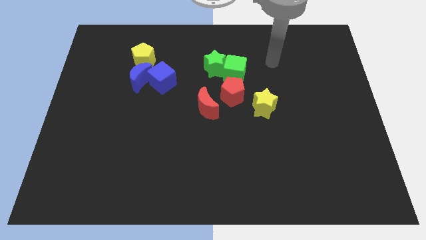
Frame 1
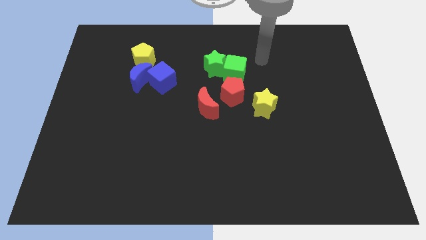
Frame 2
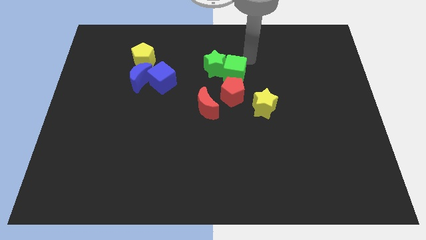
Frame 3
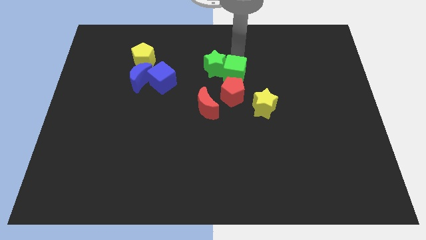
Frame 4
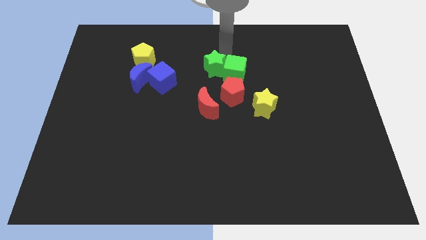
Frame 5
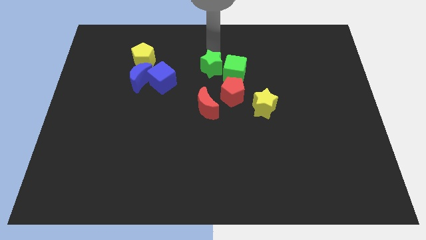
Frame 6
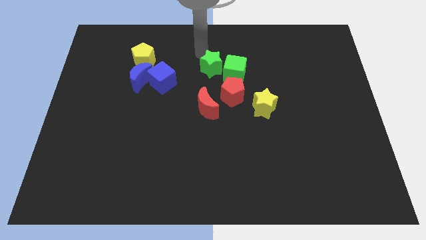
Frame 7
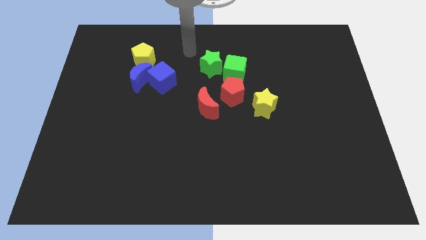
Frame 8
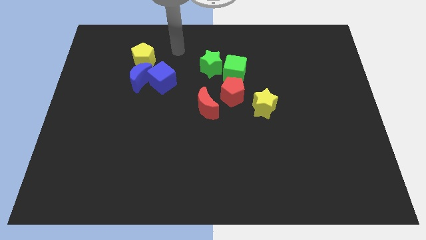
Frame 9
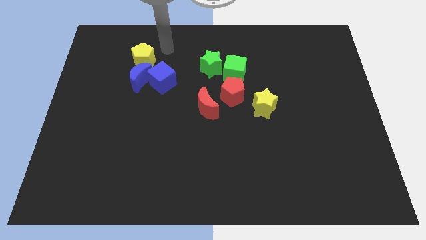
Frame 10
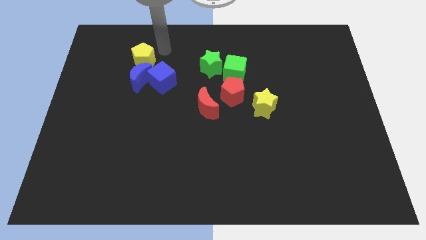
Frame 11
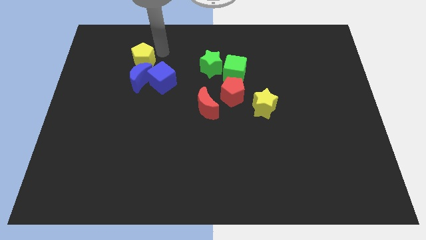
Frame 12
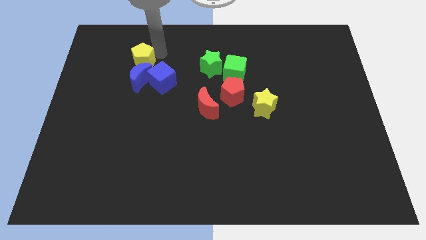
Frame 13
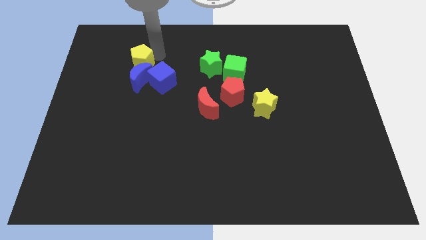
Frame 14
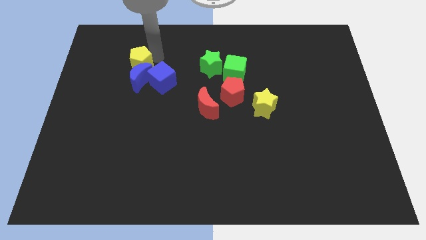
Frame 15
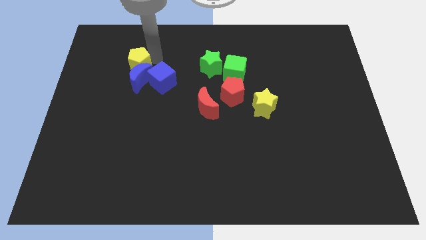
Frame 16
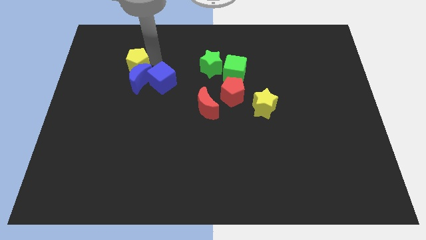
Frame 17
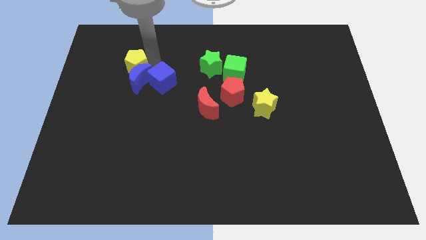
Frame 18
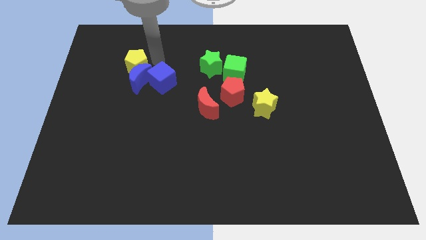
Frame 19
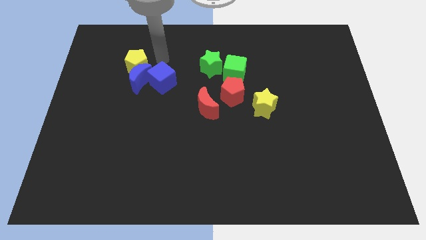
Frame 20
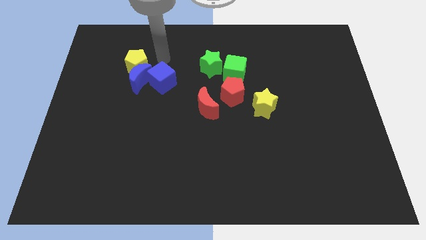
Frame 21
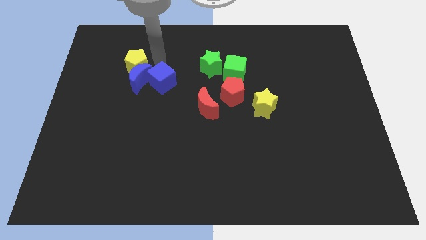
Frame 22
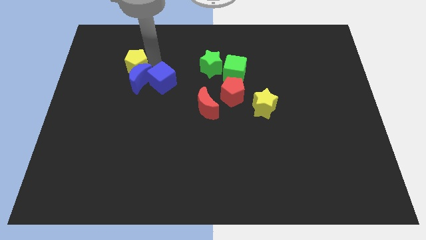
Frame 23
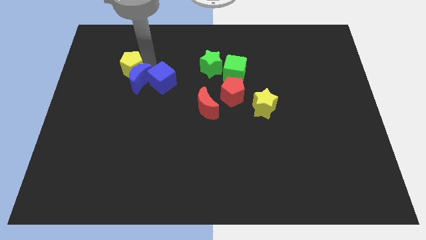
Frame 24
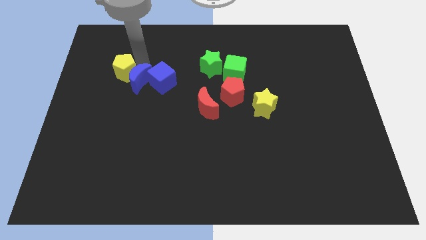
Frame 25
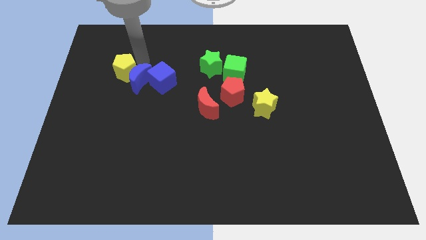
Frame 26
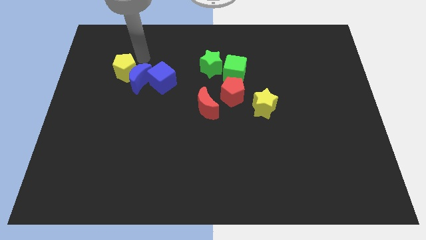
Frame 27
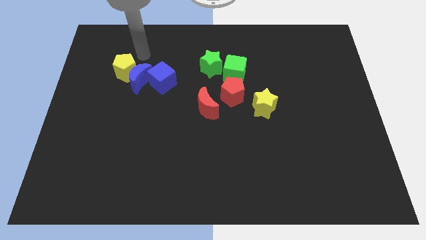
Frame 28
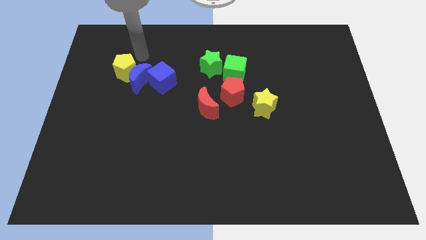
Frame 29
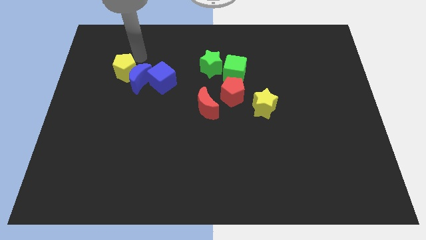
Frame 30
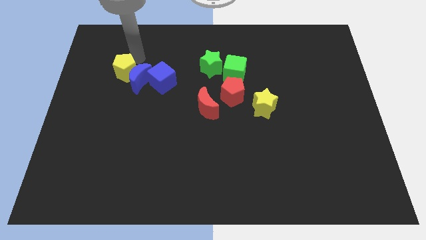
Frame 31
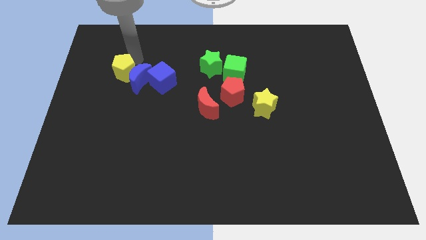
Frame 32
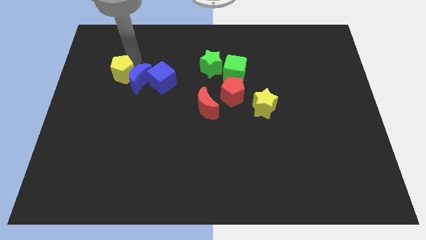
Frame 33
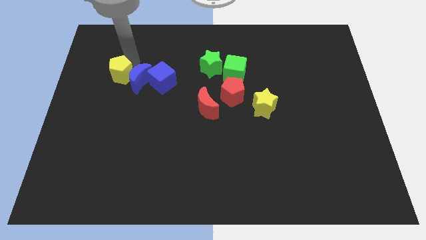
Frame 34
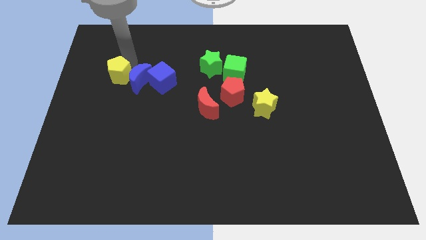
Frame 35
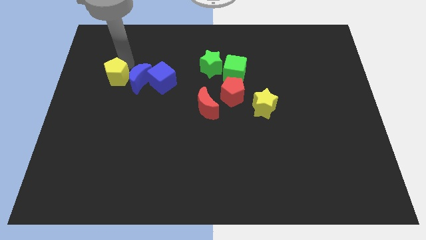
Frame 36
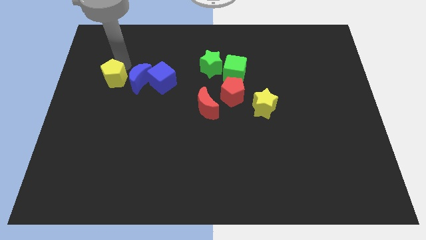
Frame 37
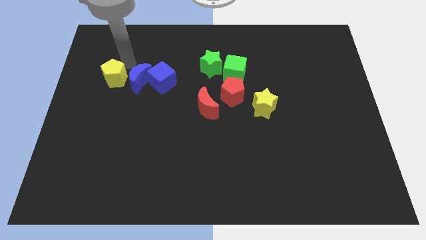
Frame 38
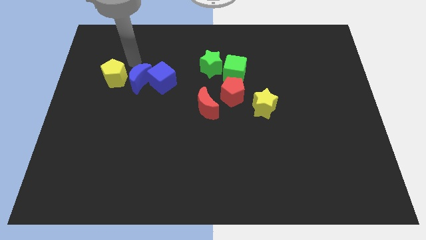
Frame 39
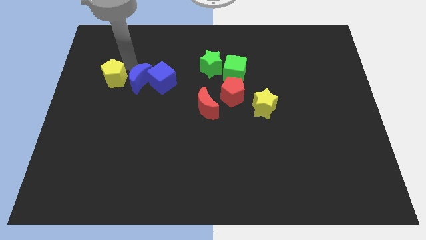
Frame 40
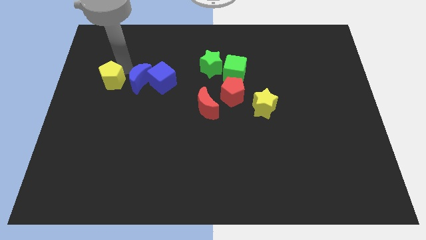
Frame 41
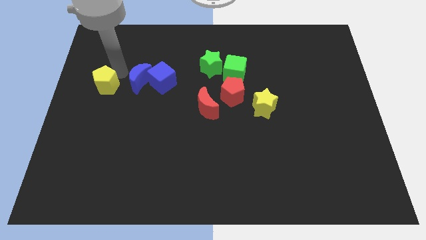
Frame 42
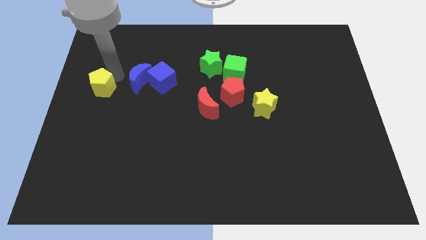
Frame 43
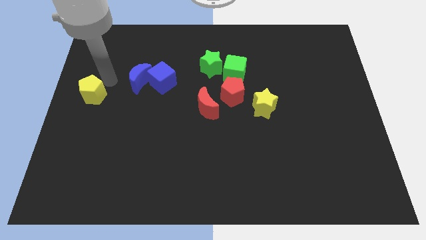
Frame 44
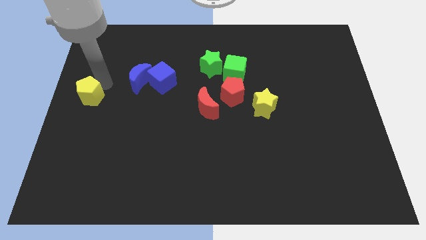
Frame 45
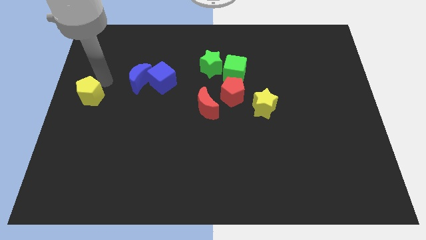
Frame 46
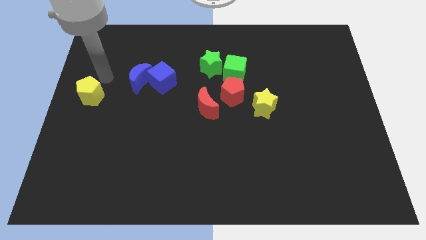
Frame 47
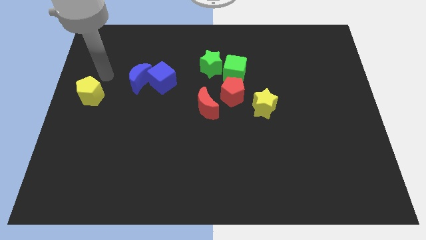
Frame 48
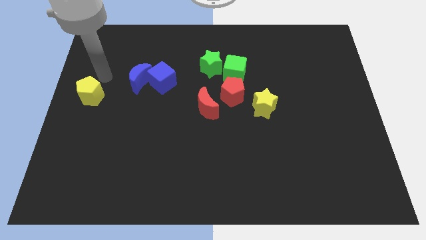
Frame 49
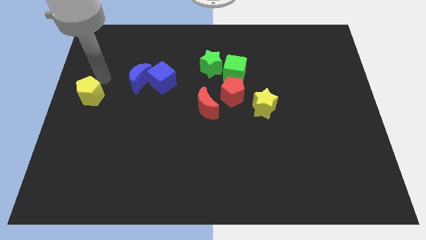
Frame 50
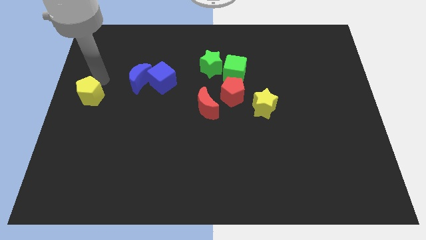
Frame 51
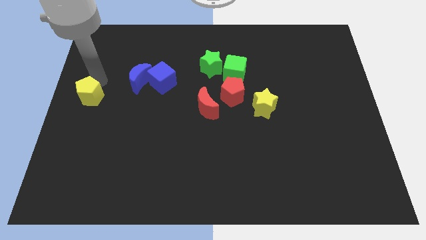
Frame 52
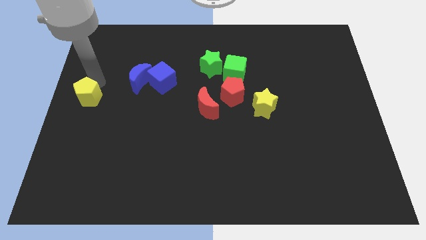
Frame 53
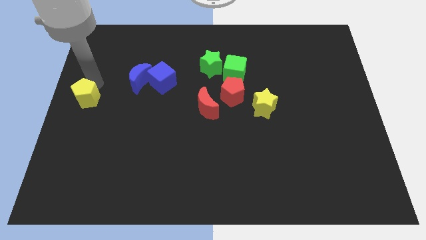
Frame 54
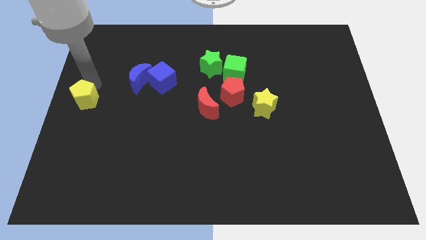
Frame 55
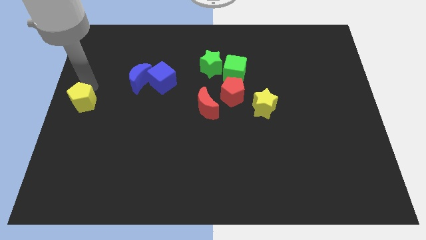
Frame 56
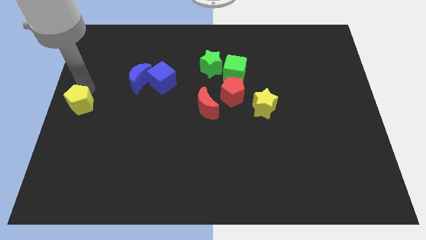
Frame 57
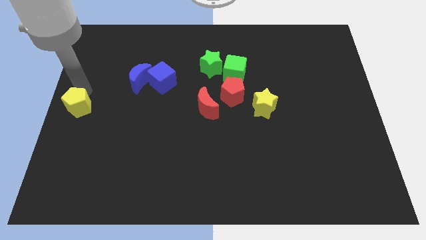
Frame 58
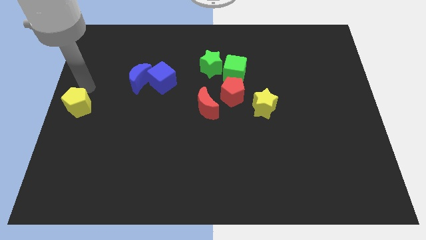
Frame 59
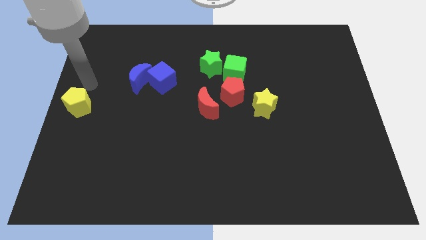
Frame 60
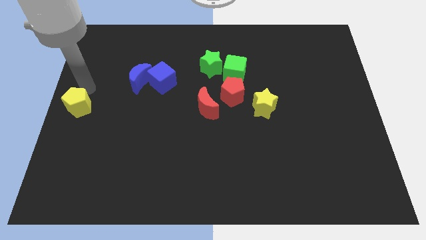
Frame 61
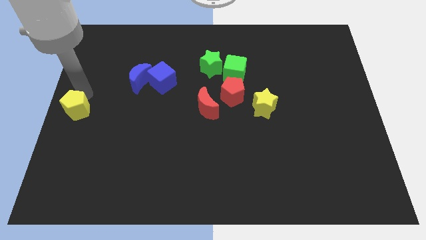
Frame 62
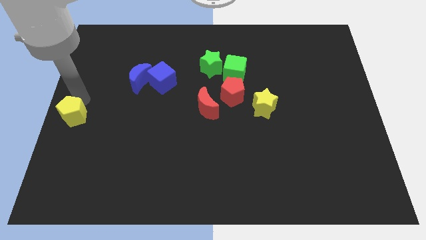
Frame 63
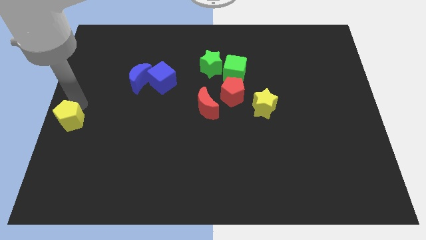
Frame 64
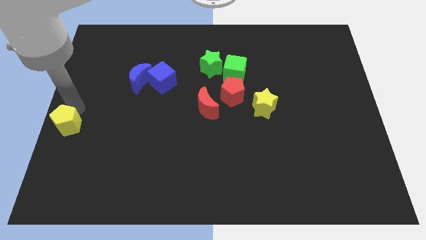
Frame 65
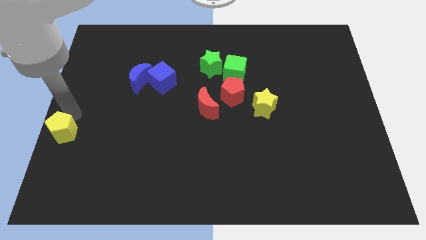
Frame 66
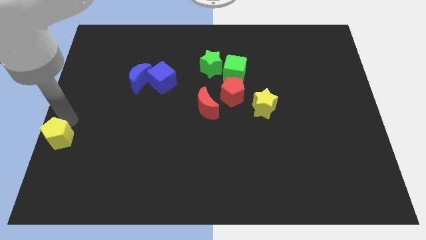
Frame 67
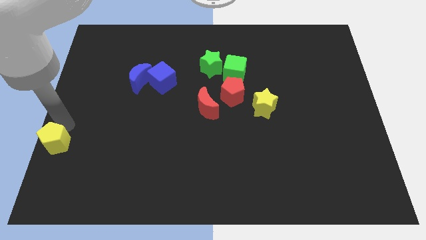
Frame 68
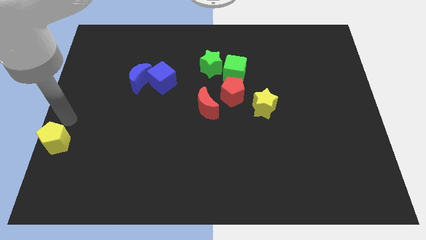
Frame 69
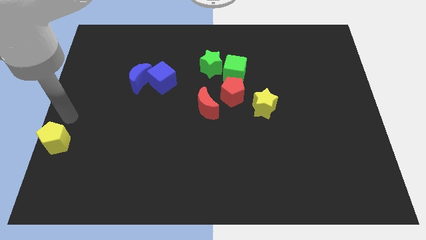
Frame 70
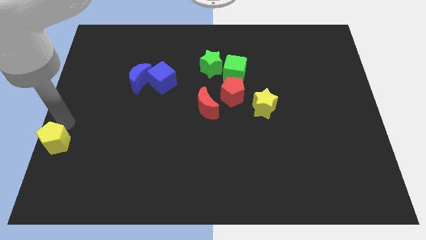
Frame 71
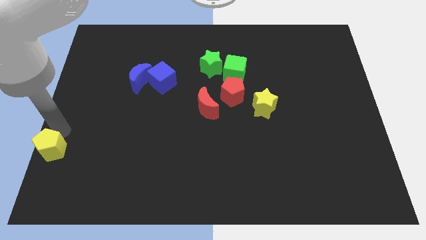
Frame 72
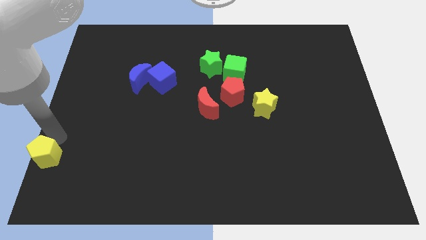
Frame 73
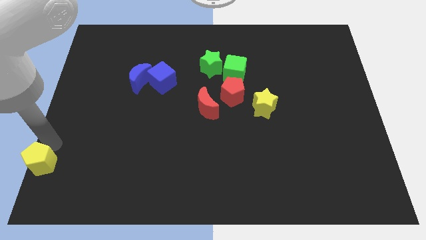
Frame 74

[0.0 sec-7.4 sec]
push the yellow pentagon to the lower left corner
